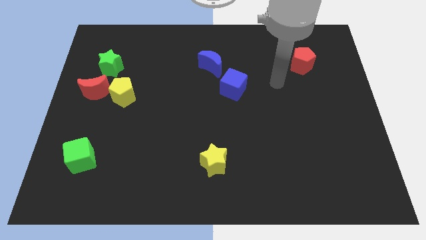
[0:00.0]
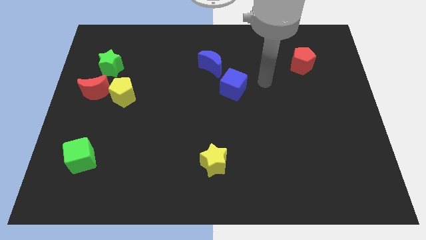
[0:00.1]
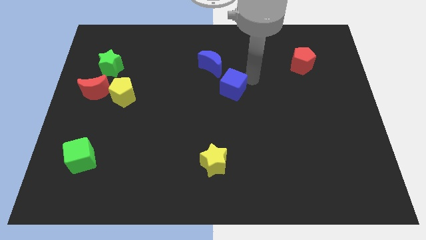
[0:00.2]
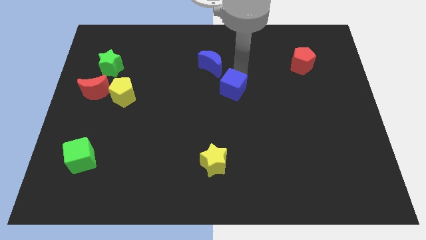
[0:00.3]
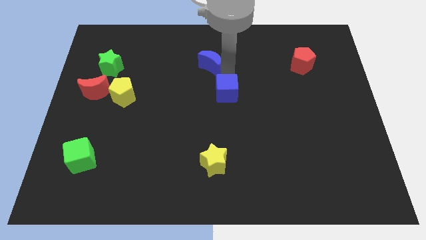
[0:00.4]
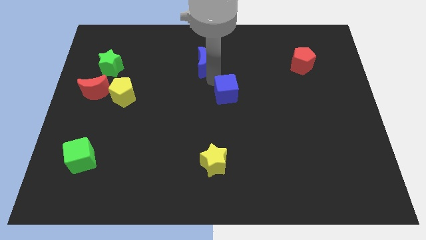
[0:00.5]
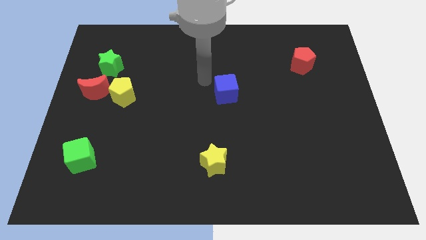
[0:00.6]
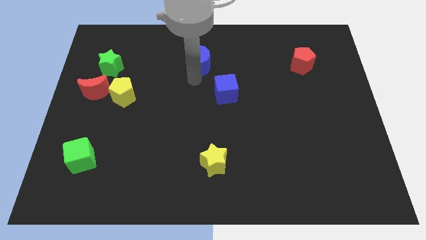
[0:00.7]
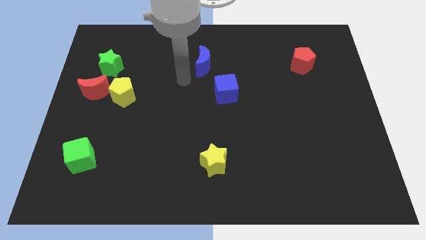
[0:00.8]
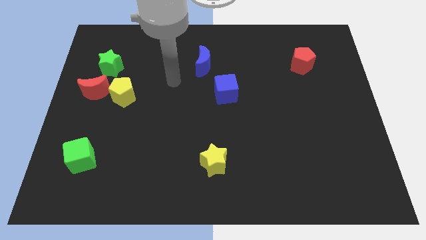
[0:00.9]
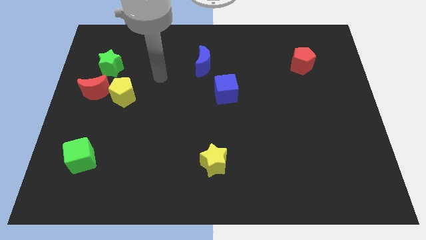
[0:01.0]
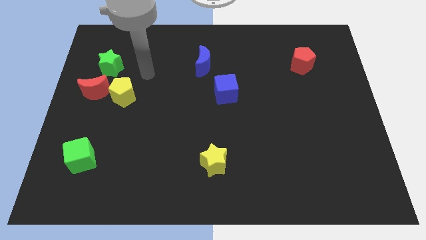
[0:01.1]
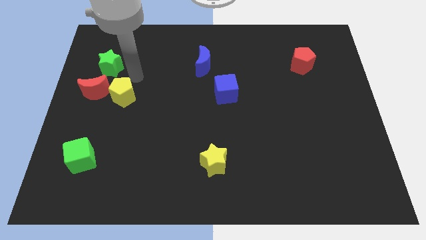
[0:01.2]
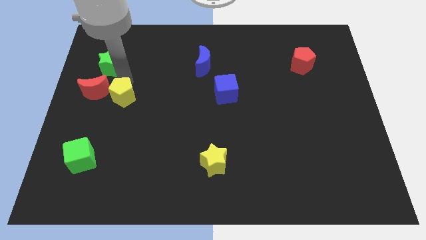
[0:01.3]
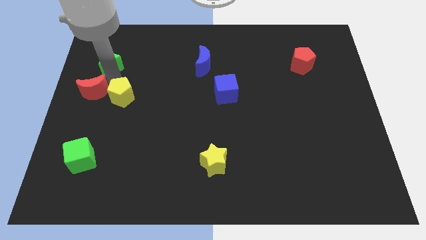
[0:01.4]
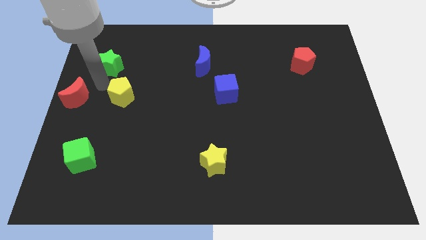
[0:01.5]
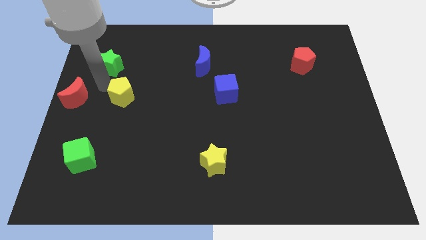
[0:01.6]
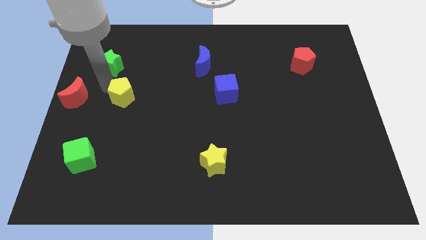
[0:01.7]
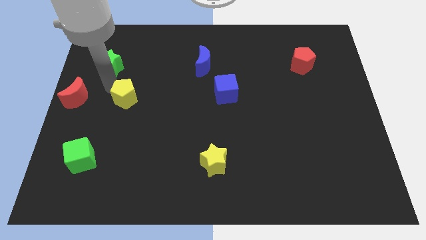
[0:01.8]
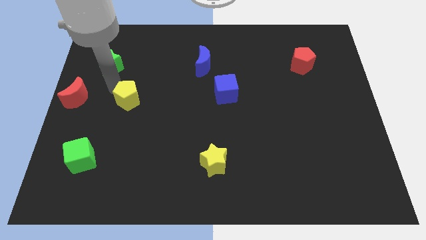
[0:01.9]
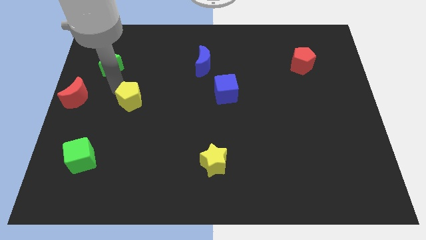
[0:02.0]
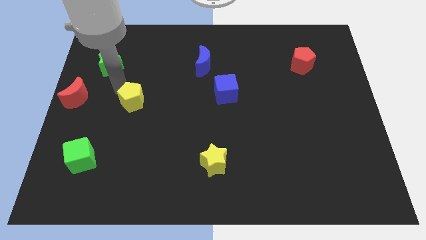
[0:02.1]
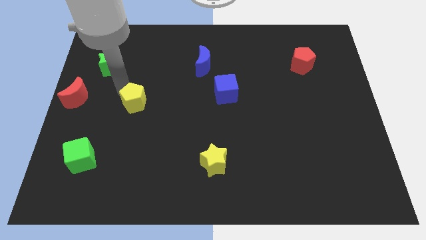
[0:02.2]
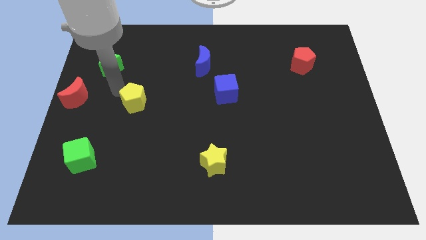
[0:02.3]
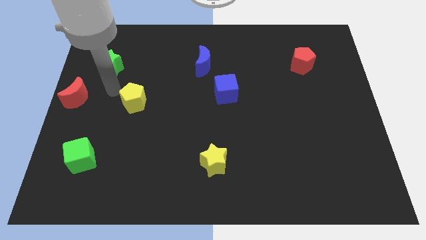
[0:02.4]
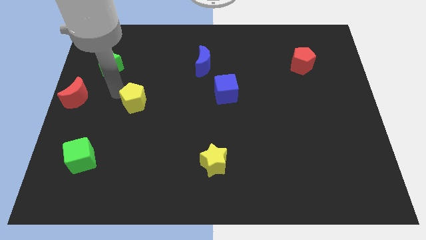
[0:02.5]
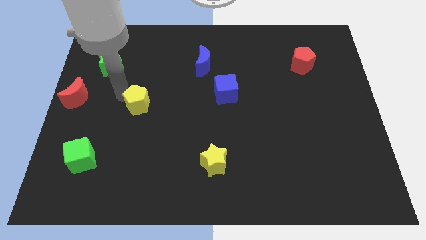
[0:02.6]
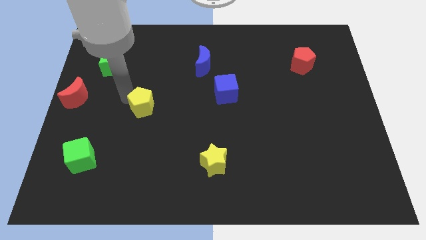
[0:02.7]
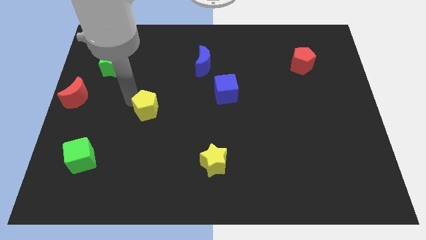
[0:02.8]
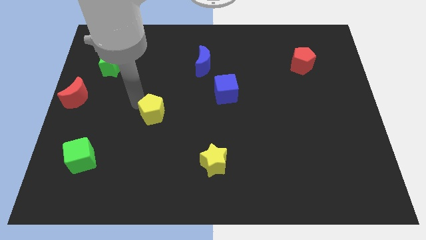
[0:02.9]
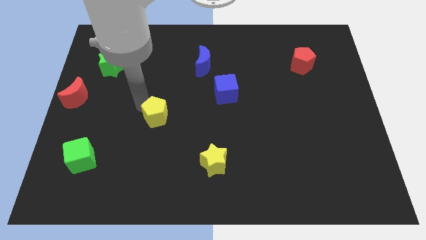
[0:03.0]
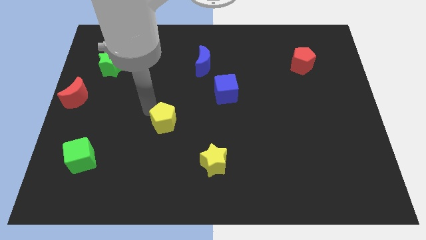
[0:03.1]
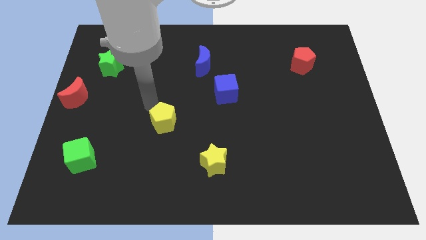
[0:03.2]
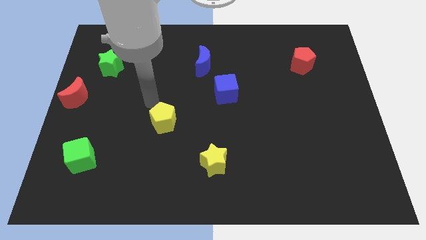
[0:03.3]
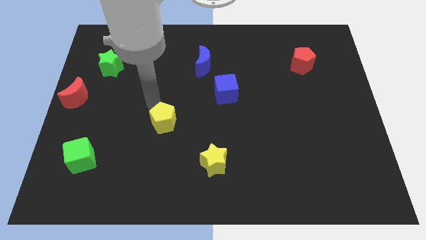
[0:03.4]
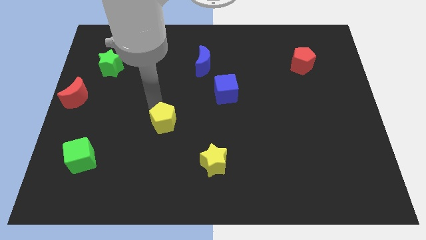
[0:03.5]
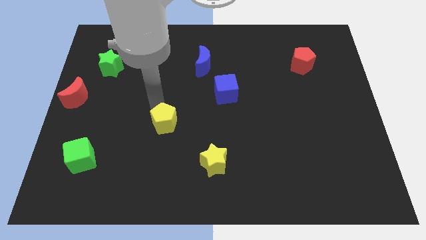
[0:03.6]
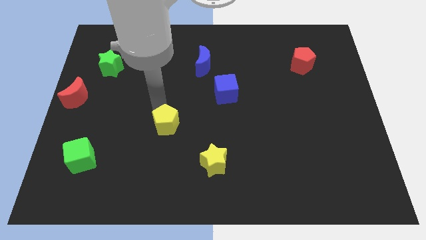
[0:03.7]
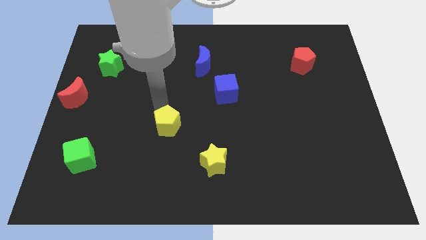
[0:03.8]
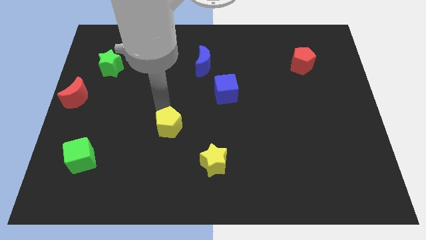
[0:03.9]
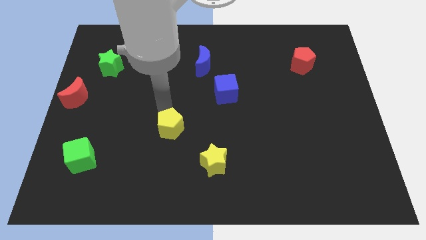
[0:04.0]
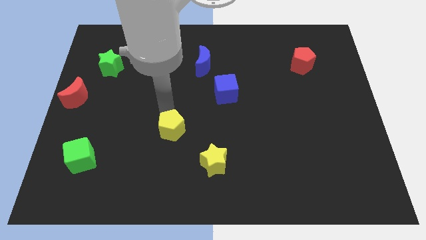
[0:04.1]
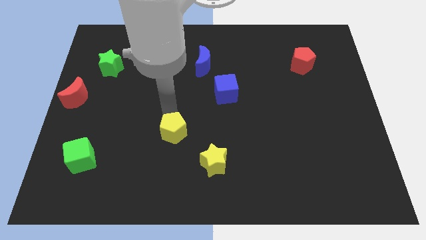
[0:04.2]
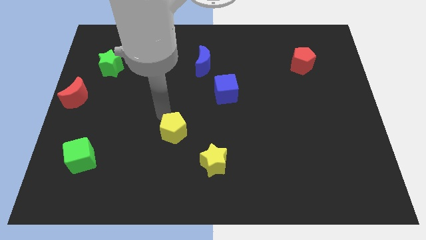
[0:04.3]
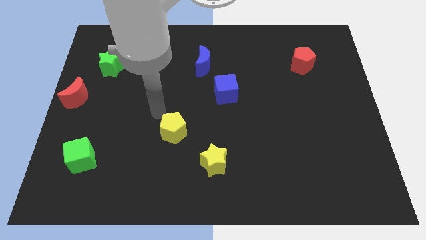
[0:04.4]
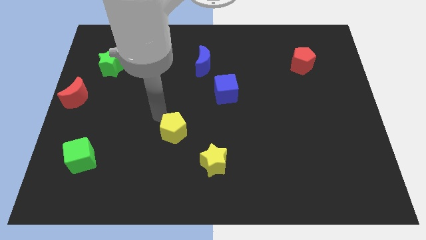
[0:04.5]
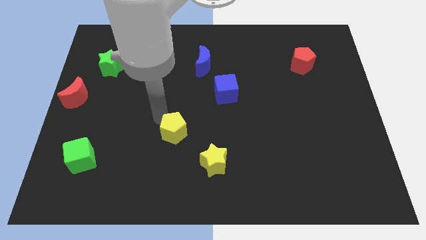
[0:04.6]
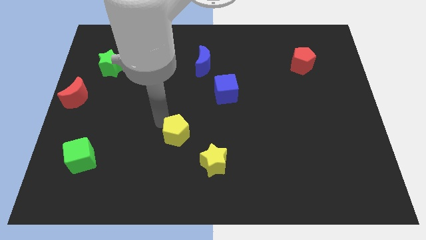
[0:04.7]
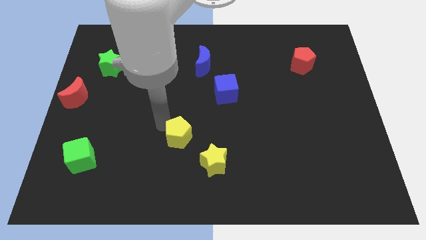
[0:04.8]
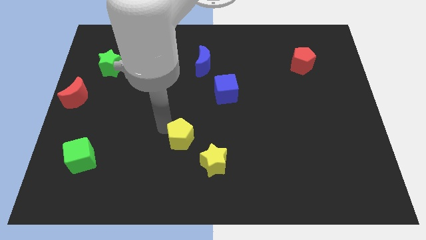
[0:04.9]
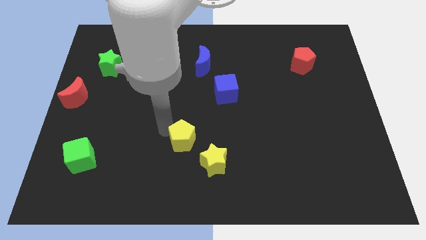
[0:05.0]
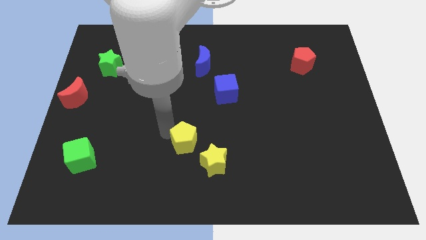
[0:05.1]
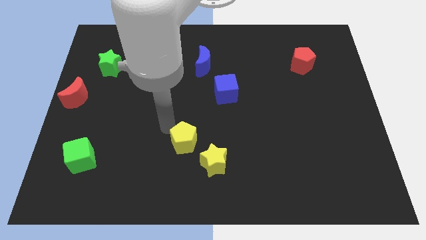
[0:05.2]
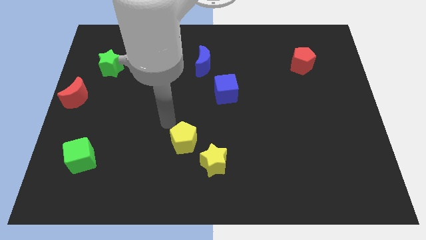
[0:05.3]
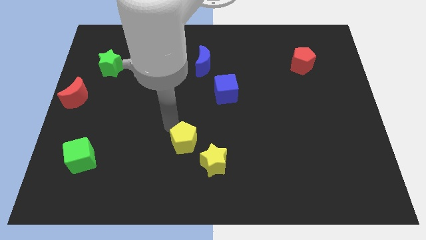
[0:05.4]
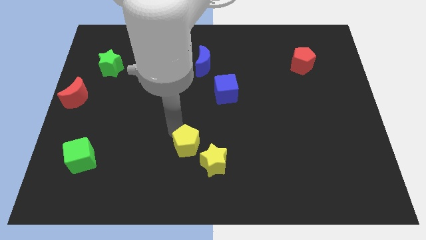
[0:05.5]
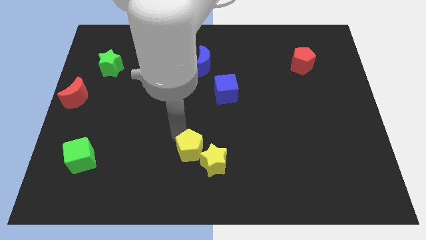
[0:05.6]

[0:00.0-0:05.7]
push the yellow pentagon to the yellow star

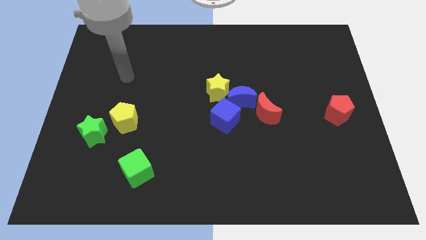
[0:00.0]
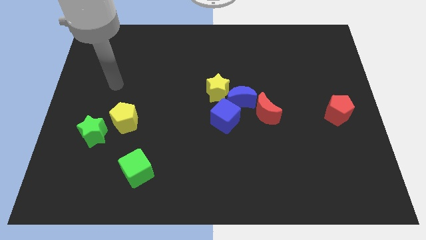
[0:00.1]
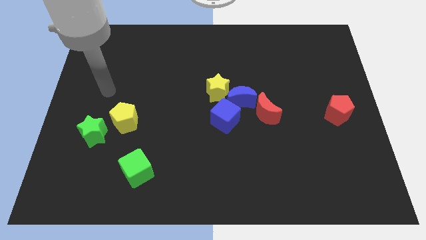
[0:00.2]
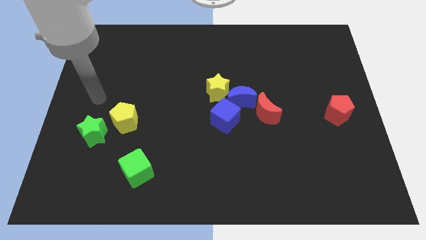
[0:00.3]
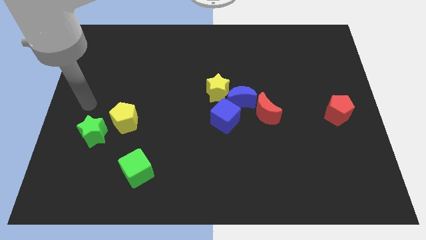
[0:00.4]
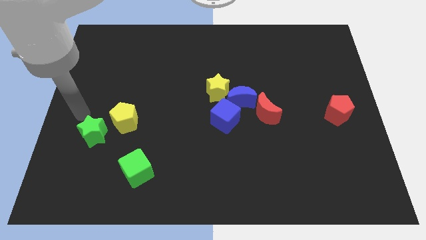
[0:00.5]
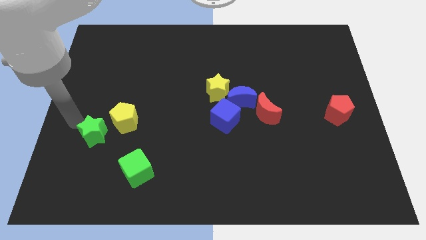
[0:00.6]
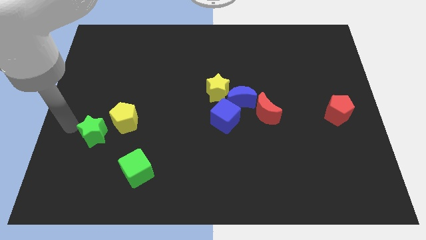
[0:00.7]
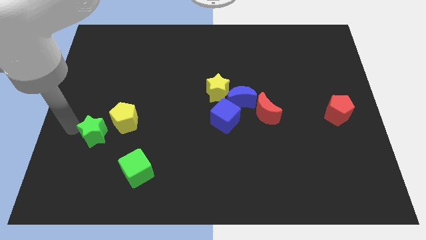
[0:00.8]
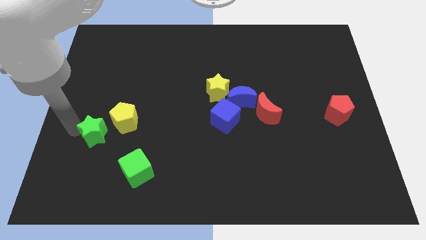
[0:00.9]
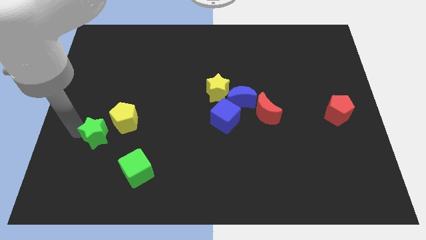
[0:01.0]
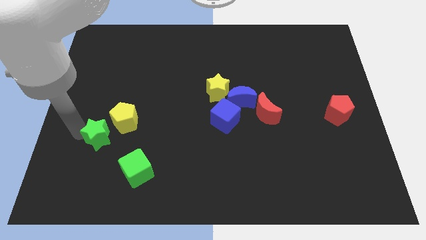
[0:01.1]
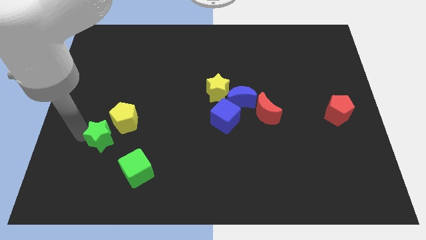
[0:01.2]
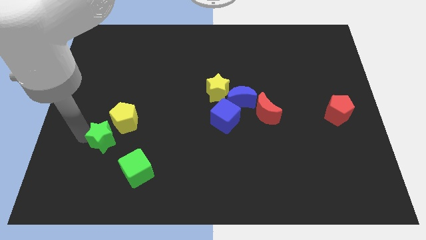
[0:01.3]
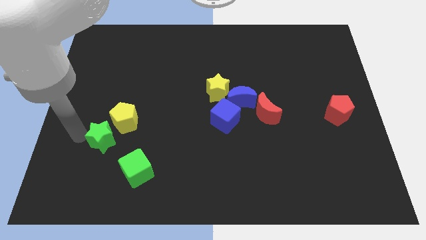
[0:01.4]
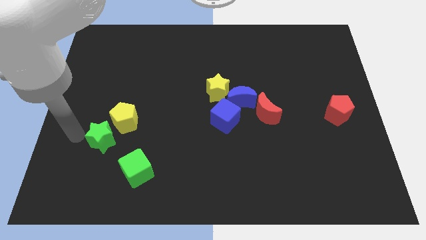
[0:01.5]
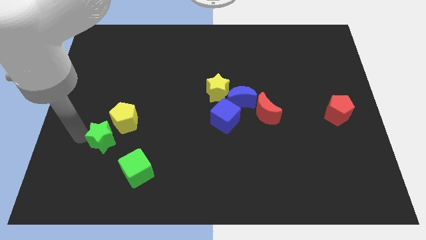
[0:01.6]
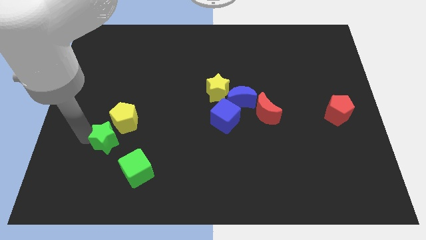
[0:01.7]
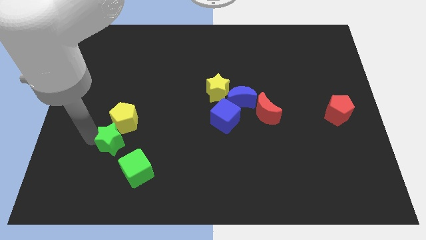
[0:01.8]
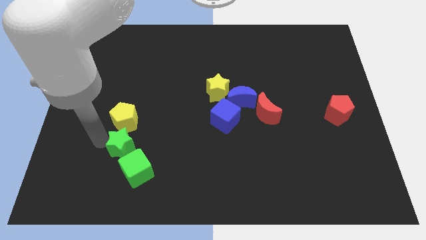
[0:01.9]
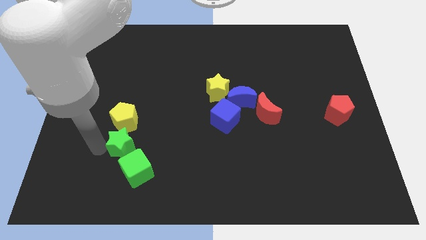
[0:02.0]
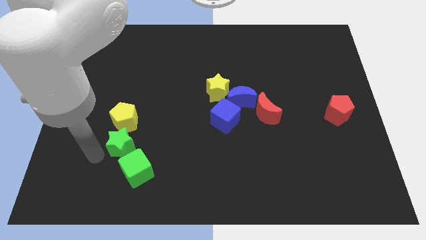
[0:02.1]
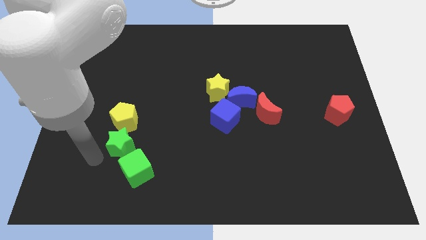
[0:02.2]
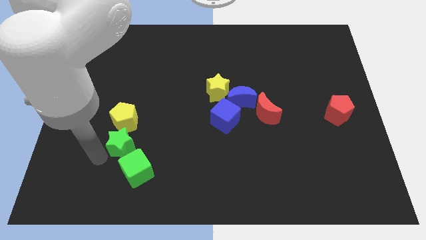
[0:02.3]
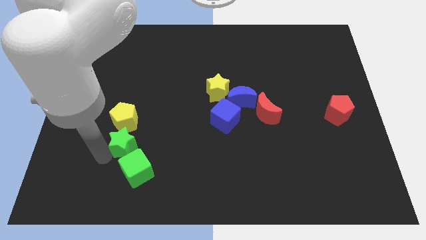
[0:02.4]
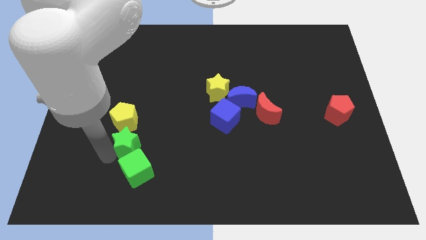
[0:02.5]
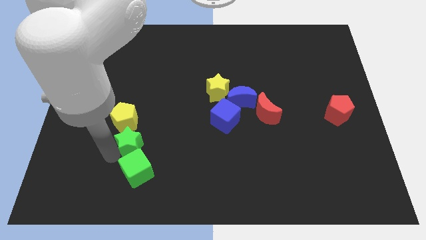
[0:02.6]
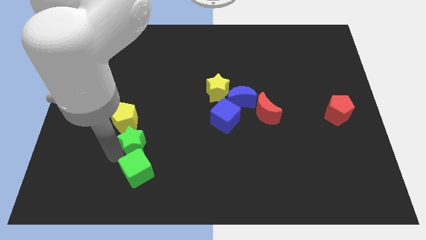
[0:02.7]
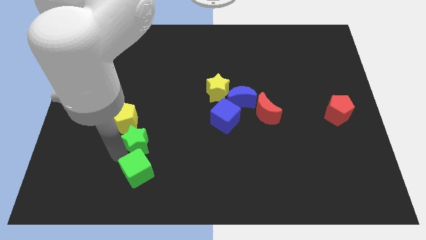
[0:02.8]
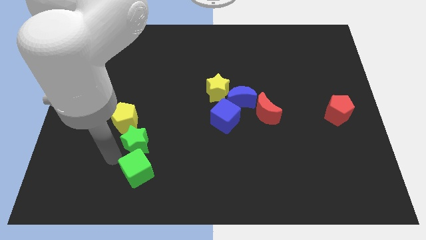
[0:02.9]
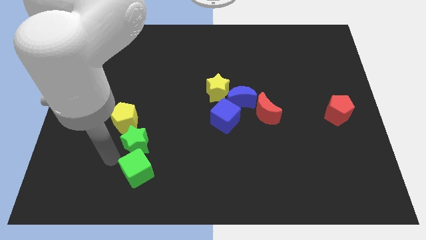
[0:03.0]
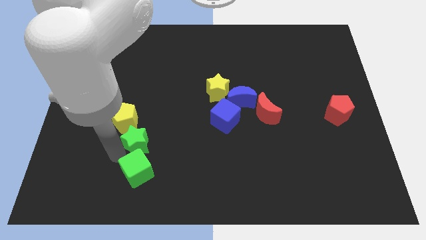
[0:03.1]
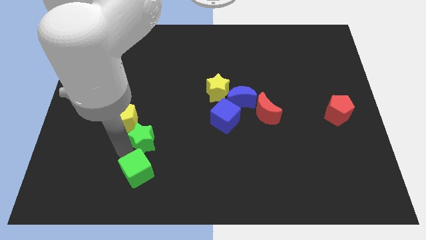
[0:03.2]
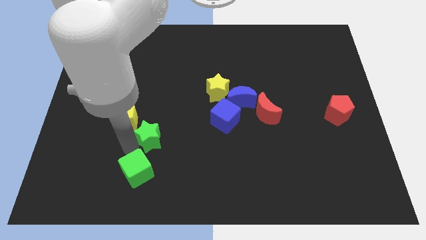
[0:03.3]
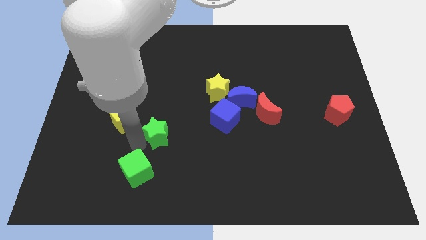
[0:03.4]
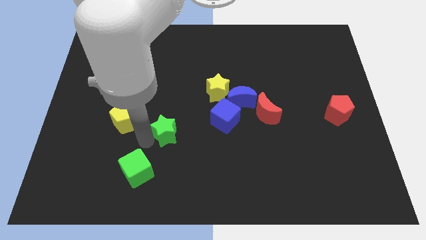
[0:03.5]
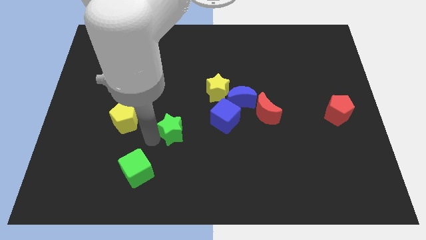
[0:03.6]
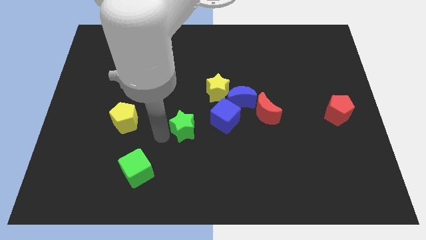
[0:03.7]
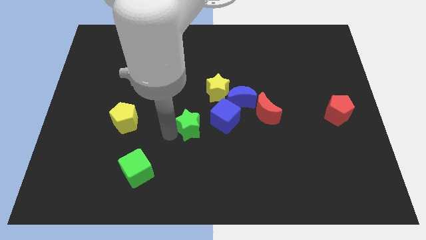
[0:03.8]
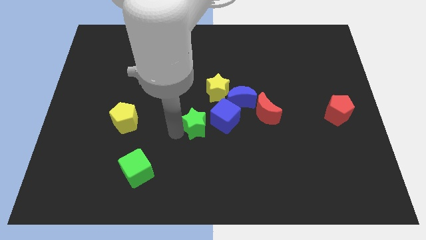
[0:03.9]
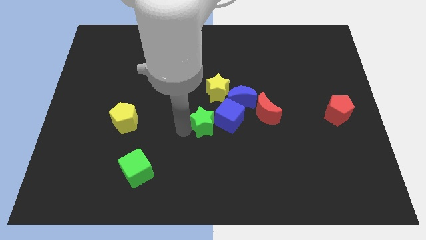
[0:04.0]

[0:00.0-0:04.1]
slide the green star next to the blue cube
